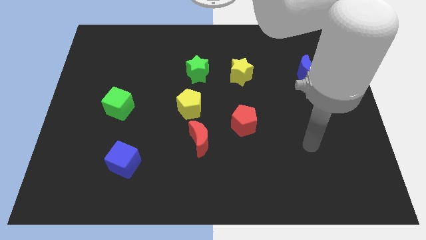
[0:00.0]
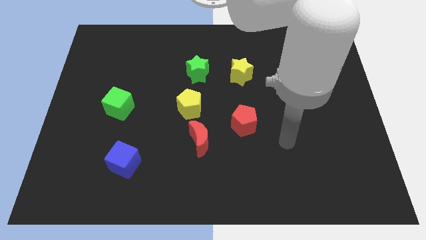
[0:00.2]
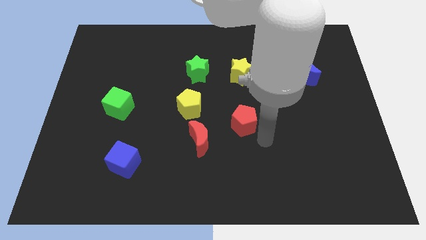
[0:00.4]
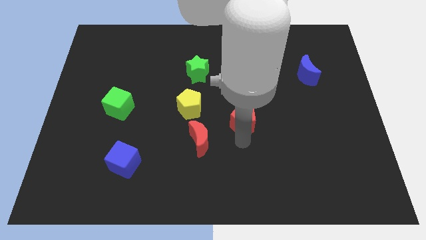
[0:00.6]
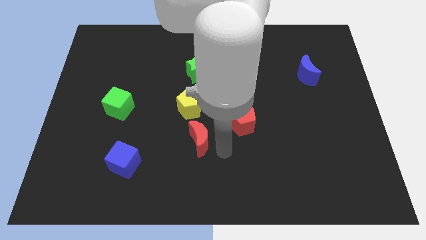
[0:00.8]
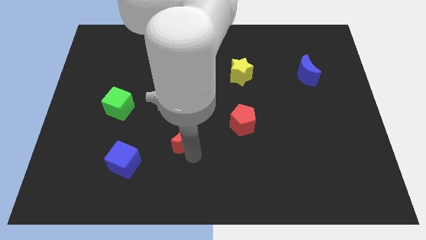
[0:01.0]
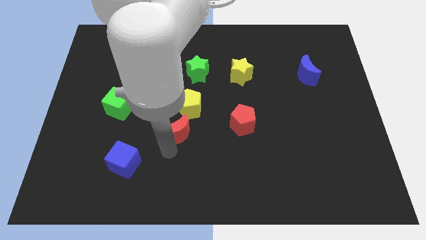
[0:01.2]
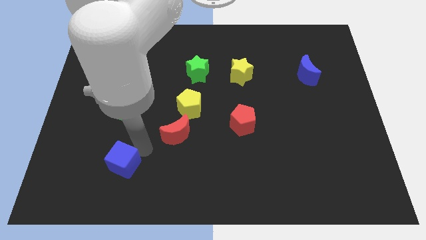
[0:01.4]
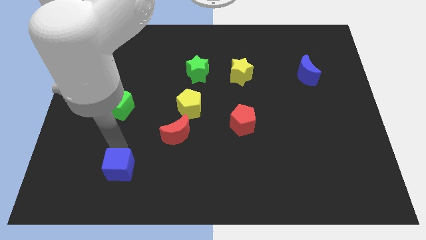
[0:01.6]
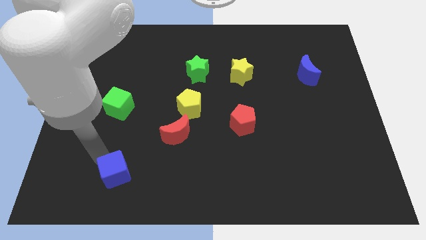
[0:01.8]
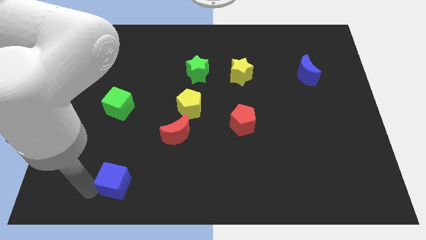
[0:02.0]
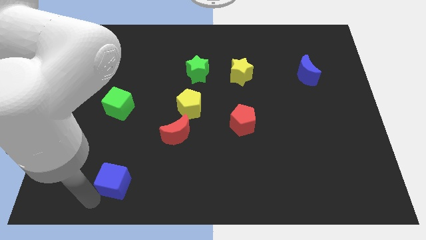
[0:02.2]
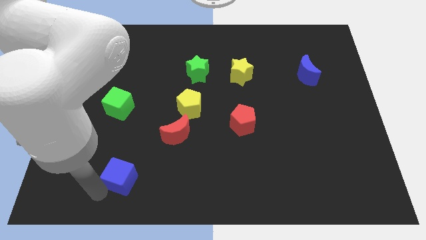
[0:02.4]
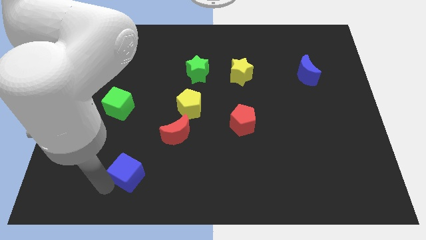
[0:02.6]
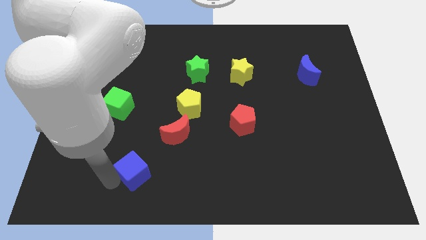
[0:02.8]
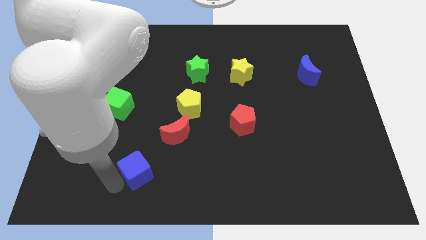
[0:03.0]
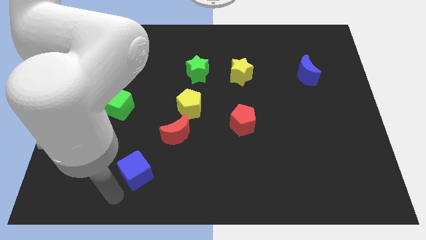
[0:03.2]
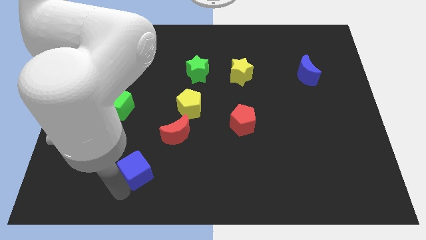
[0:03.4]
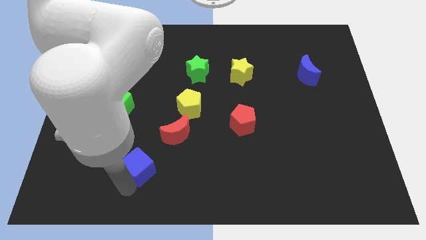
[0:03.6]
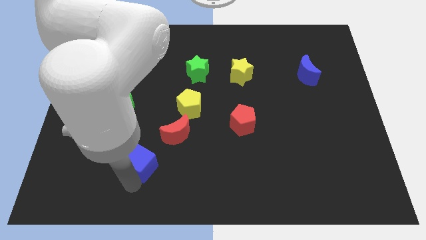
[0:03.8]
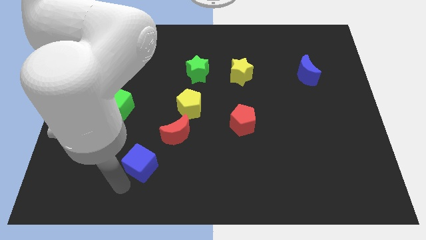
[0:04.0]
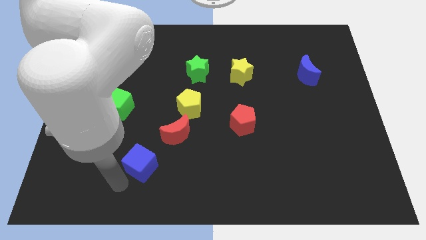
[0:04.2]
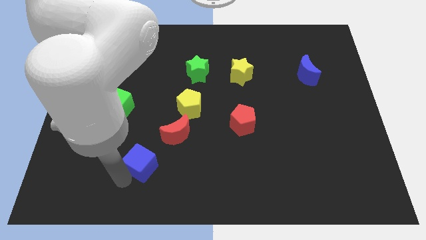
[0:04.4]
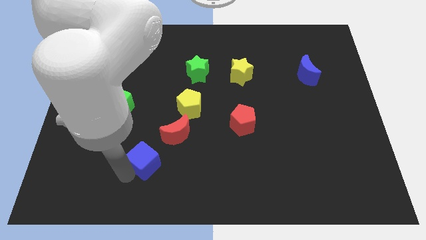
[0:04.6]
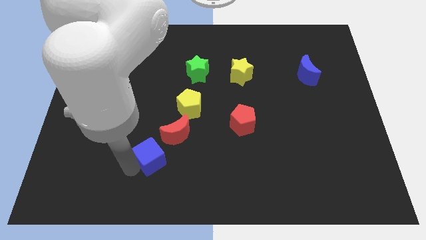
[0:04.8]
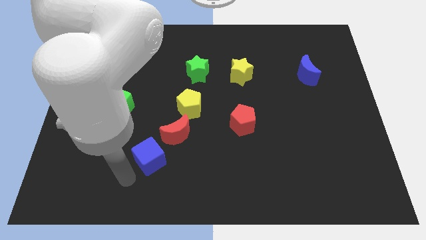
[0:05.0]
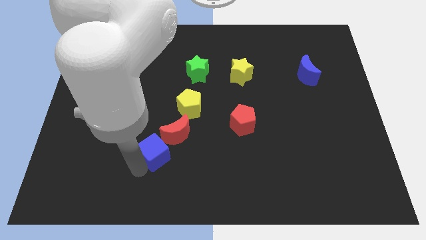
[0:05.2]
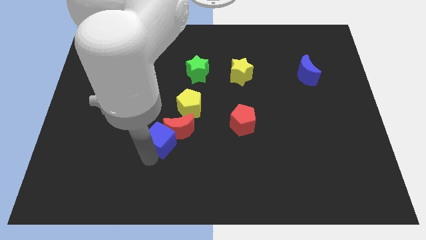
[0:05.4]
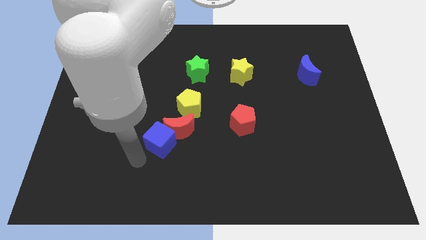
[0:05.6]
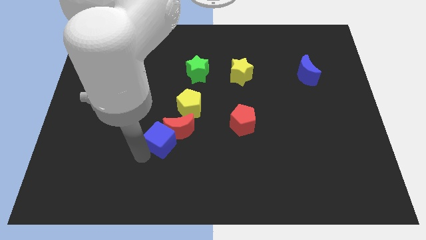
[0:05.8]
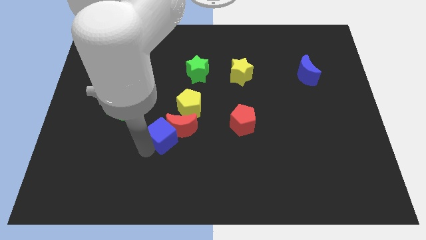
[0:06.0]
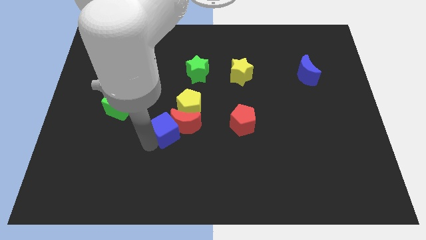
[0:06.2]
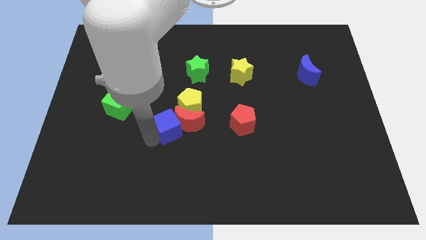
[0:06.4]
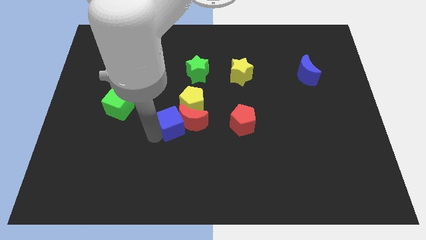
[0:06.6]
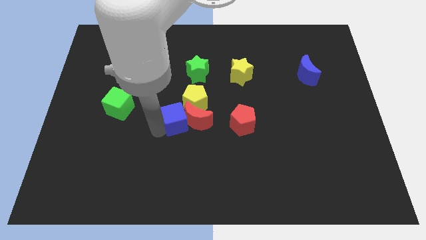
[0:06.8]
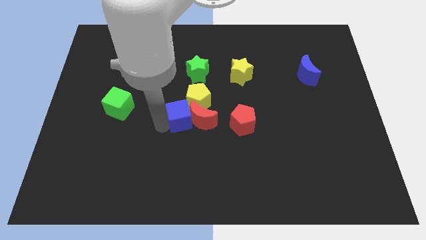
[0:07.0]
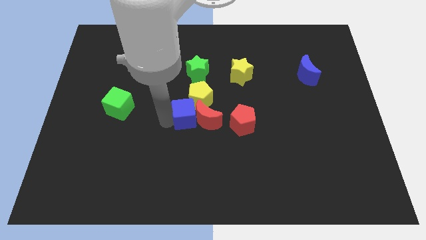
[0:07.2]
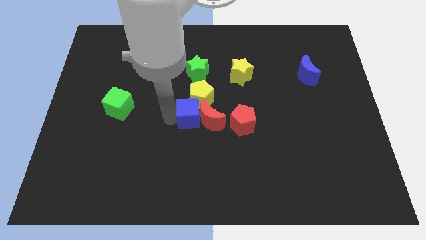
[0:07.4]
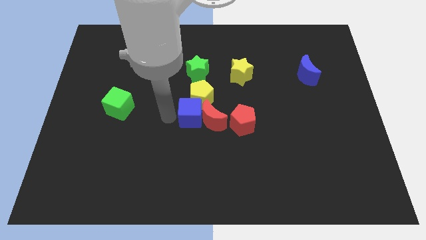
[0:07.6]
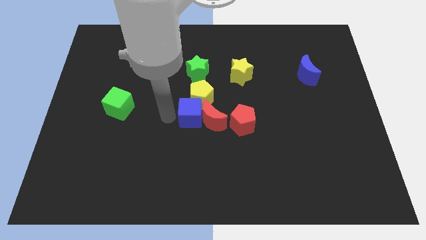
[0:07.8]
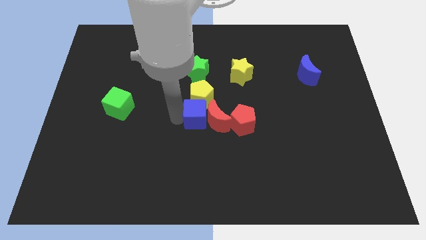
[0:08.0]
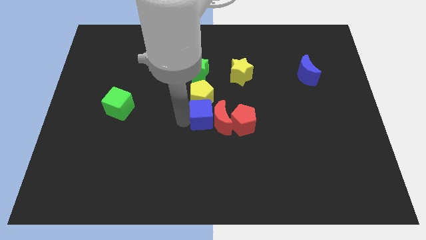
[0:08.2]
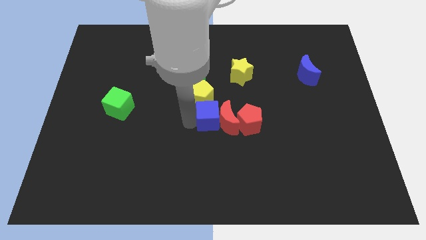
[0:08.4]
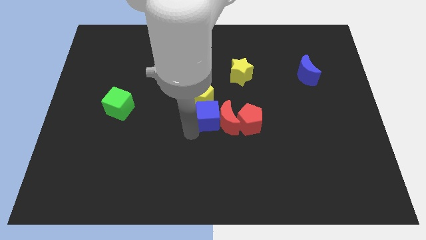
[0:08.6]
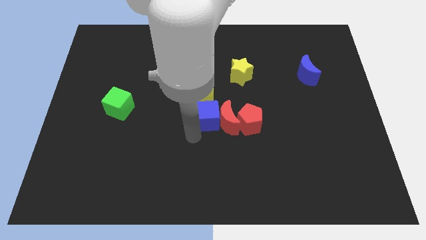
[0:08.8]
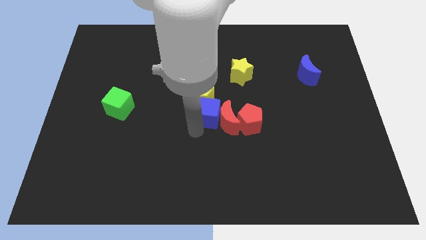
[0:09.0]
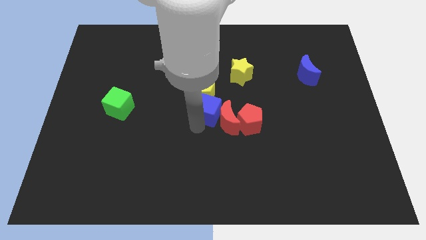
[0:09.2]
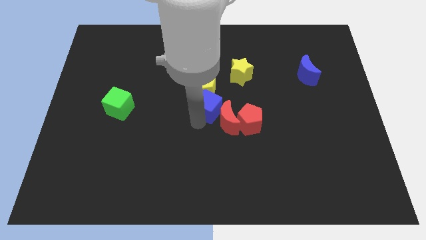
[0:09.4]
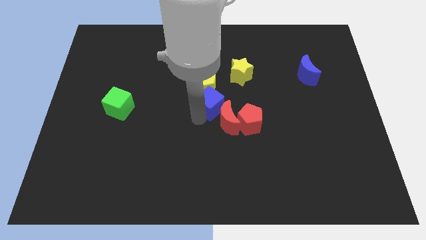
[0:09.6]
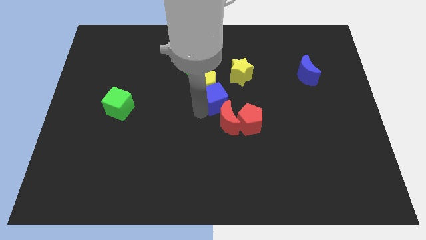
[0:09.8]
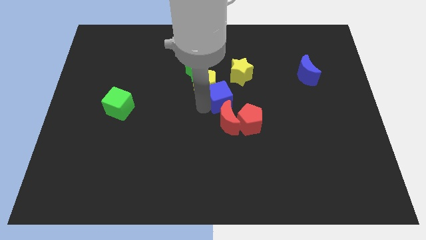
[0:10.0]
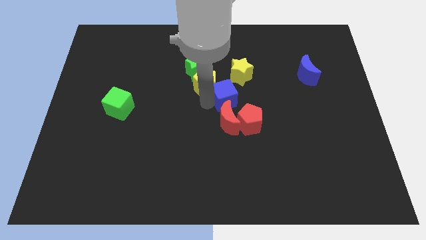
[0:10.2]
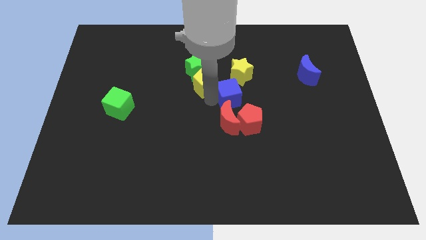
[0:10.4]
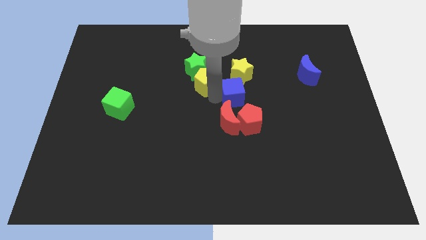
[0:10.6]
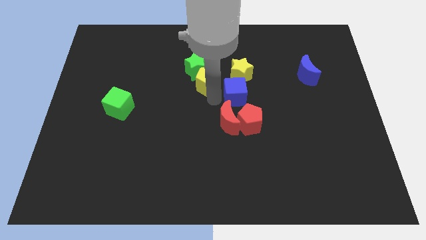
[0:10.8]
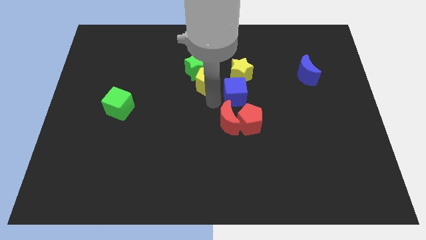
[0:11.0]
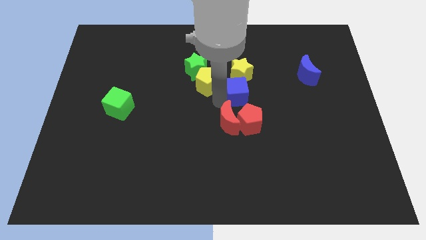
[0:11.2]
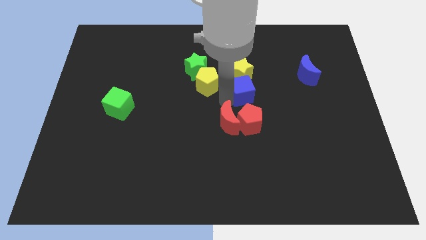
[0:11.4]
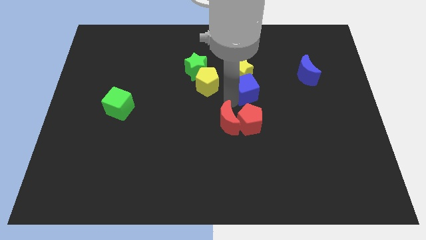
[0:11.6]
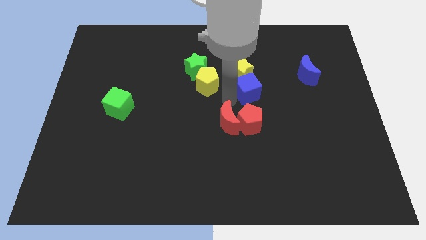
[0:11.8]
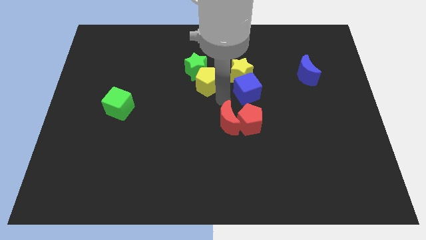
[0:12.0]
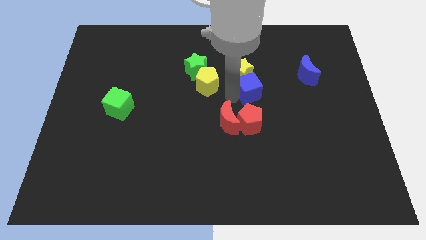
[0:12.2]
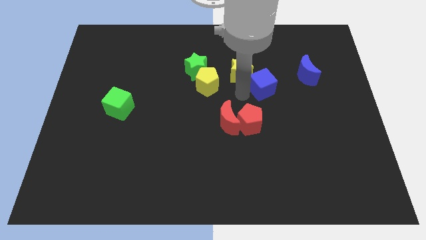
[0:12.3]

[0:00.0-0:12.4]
move the blue cube to the right of the yellow star

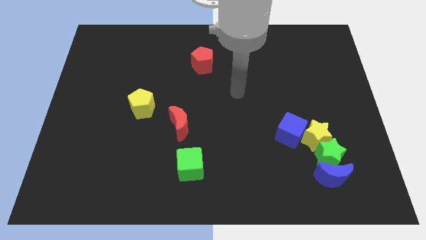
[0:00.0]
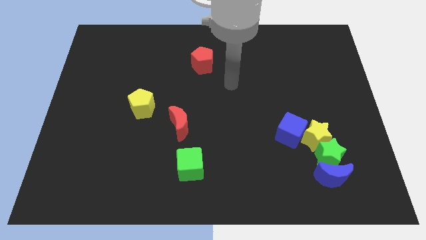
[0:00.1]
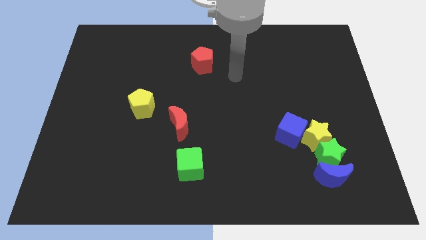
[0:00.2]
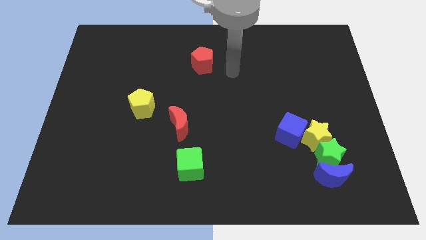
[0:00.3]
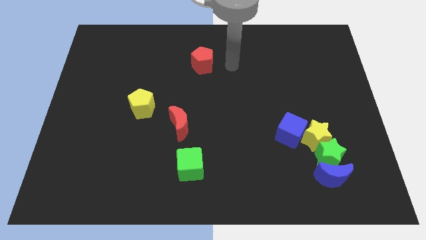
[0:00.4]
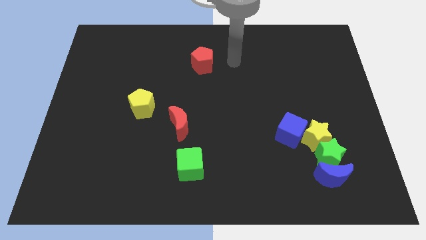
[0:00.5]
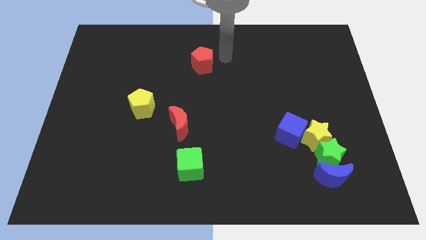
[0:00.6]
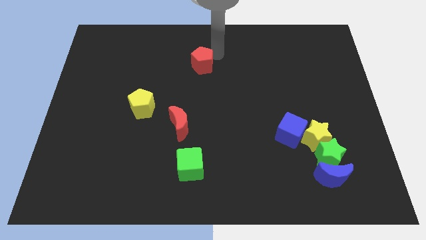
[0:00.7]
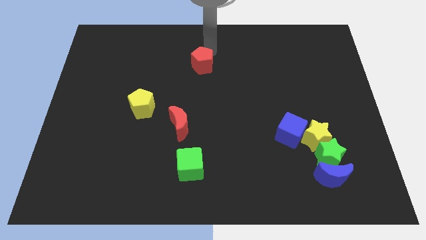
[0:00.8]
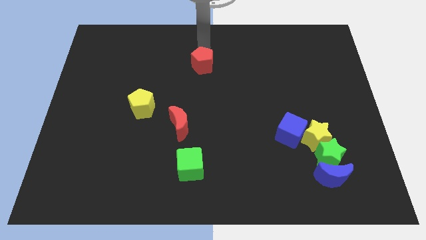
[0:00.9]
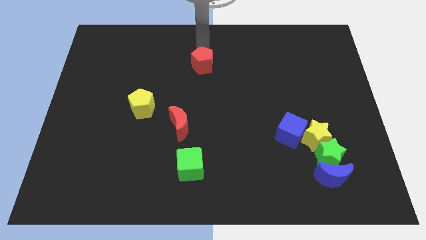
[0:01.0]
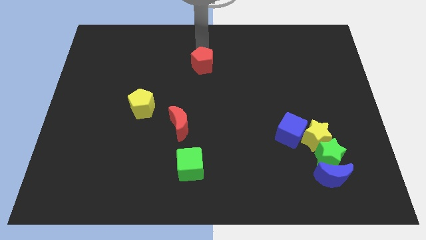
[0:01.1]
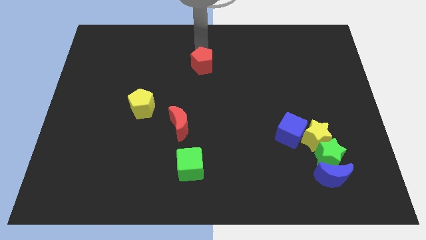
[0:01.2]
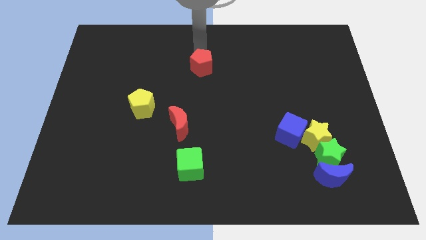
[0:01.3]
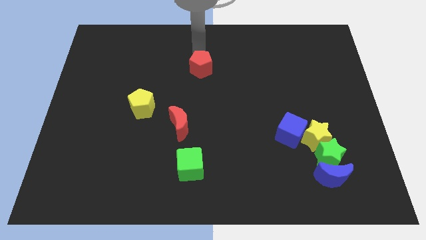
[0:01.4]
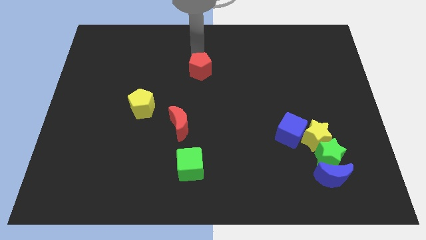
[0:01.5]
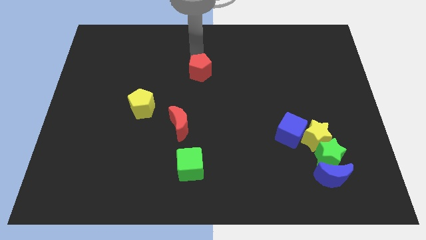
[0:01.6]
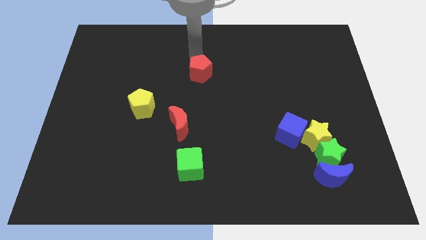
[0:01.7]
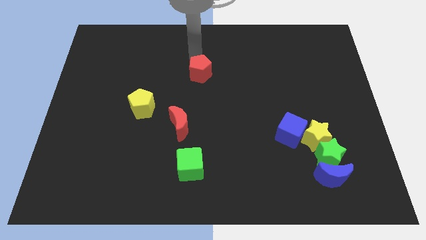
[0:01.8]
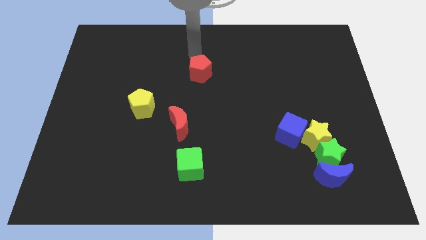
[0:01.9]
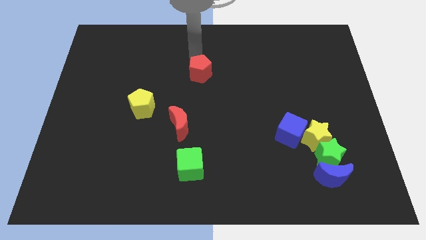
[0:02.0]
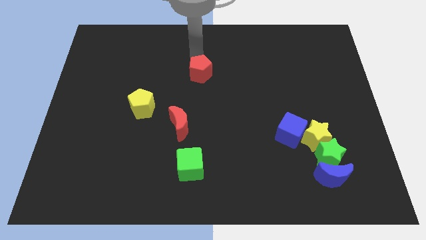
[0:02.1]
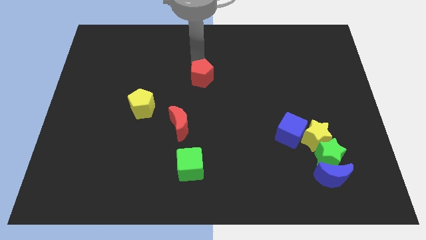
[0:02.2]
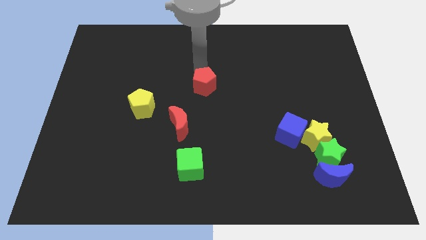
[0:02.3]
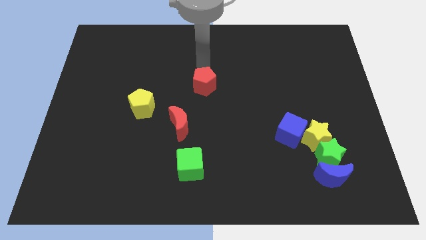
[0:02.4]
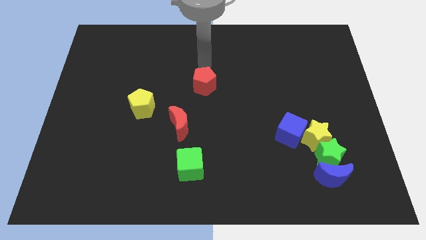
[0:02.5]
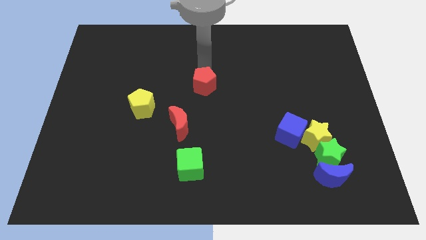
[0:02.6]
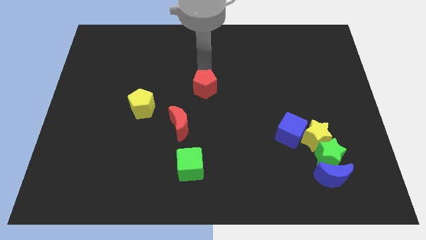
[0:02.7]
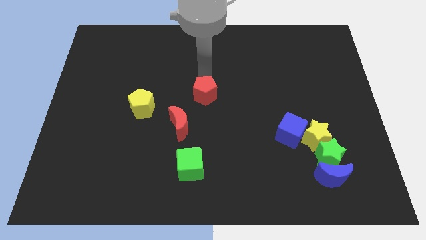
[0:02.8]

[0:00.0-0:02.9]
put the red pentagon to the top right side of the red moon
